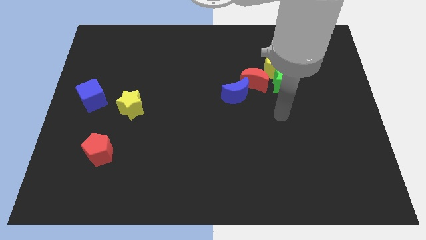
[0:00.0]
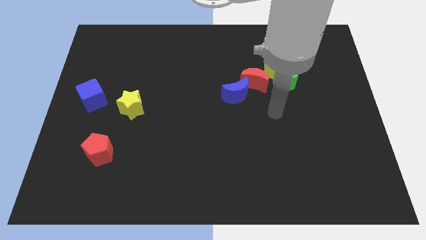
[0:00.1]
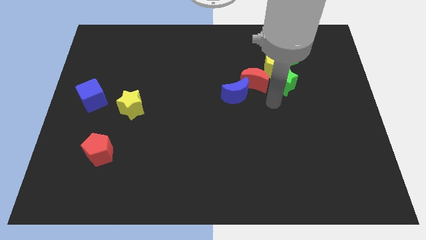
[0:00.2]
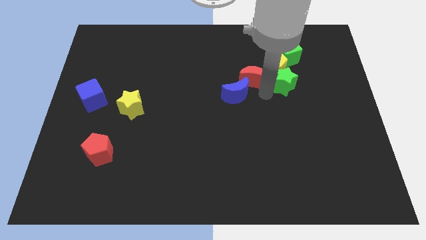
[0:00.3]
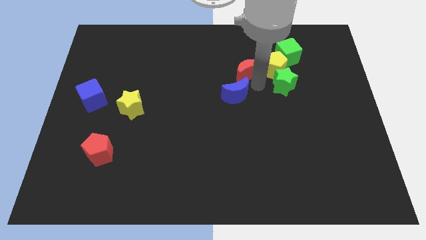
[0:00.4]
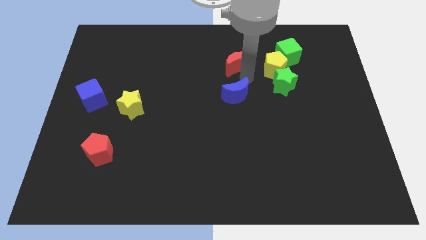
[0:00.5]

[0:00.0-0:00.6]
separate the blue moon from the red moon

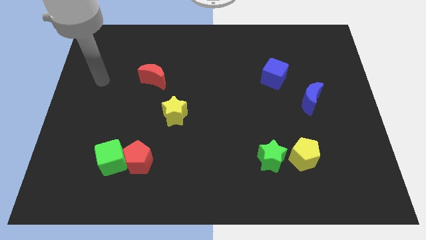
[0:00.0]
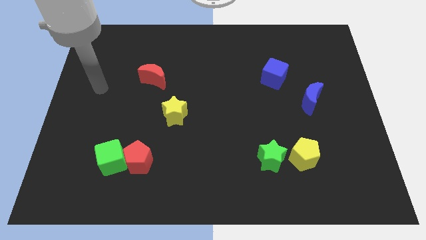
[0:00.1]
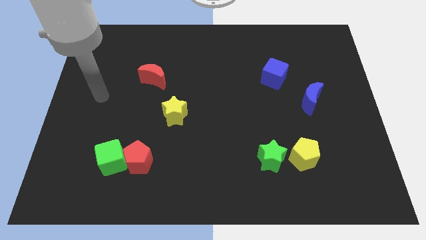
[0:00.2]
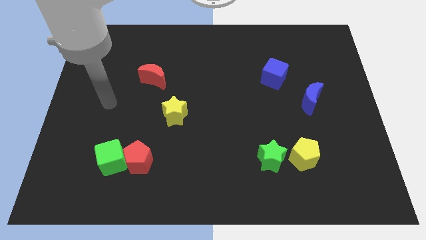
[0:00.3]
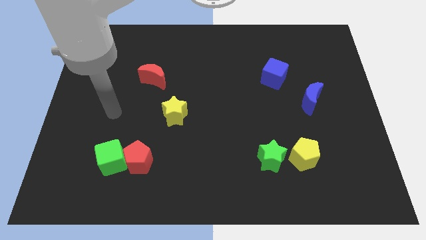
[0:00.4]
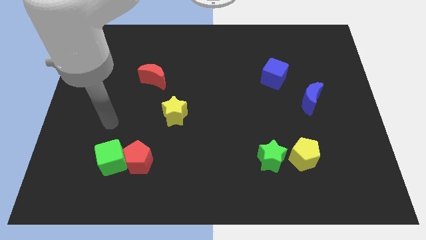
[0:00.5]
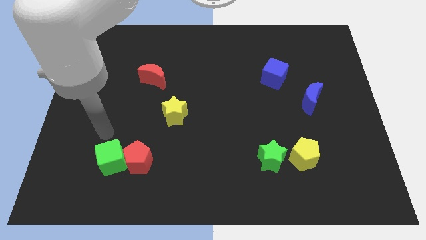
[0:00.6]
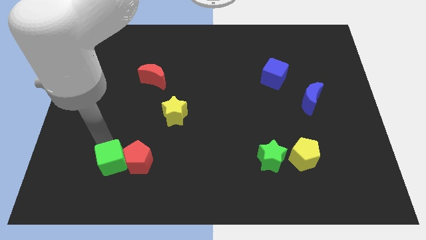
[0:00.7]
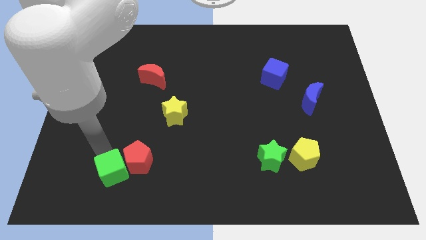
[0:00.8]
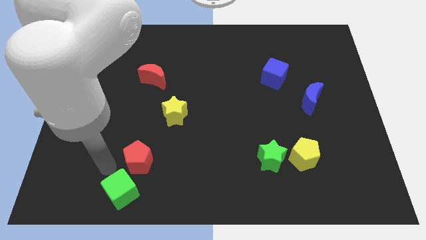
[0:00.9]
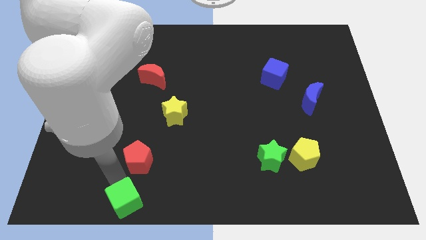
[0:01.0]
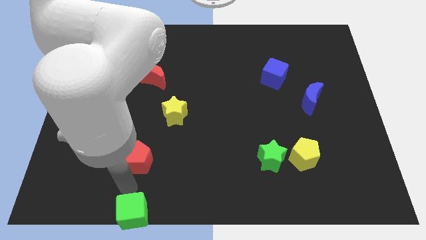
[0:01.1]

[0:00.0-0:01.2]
move the red pentagon away from the green cube

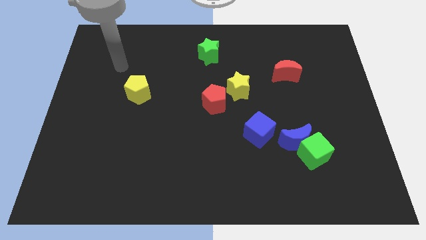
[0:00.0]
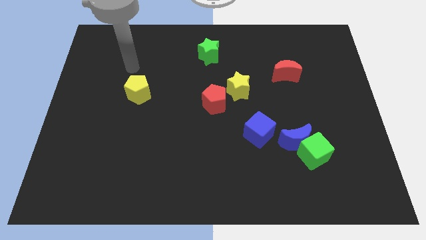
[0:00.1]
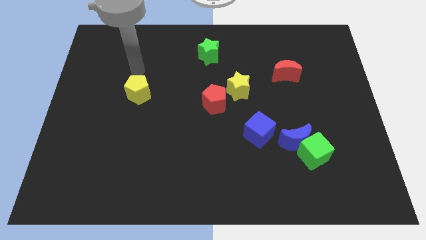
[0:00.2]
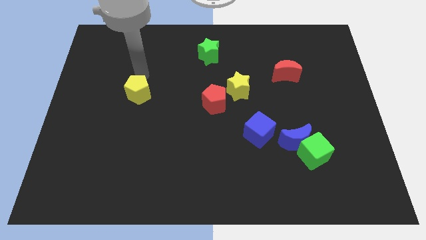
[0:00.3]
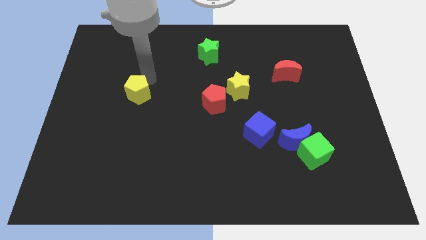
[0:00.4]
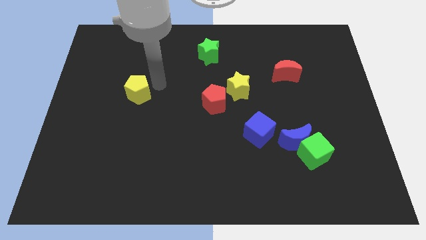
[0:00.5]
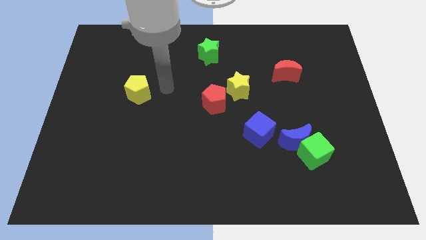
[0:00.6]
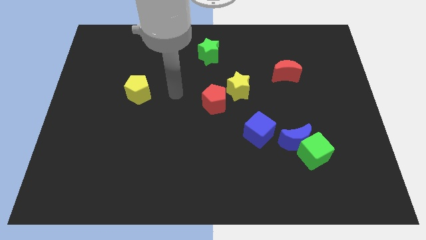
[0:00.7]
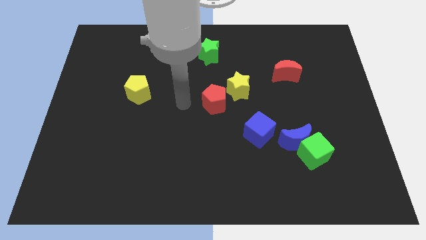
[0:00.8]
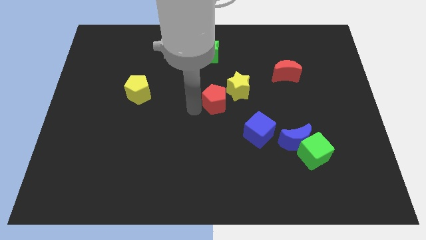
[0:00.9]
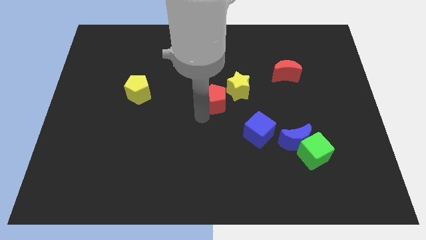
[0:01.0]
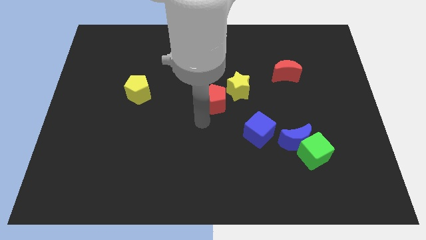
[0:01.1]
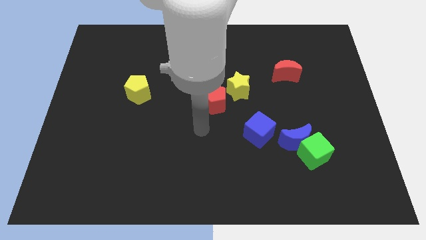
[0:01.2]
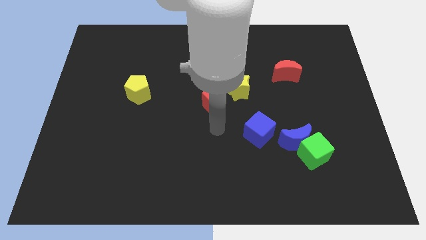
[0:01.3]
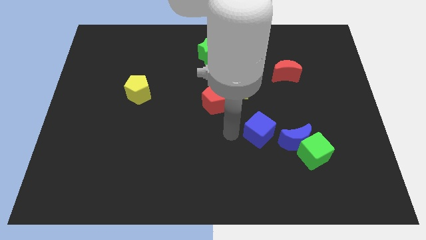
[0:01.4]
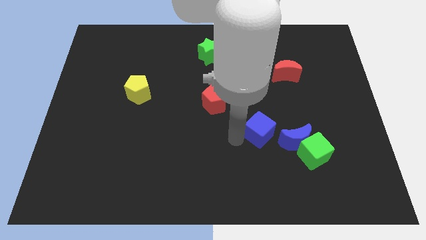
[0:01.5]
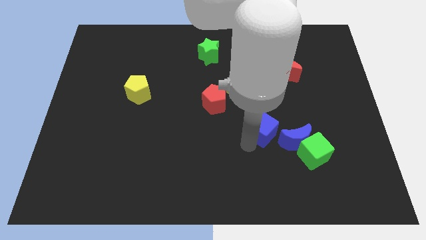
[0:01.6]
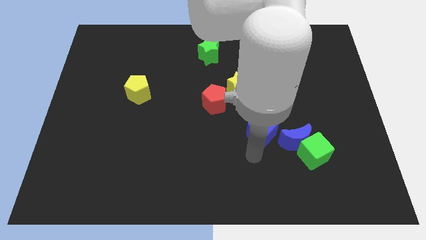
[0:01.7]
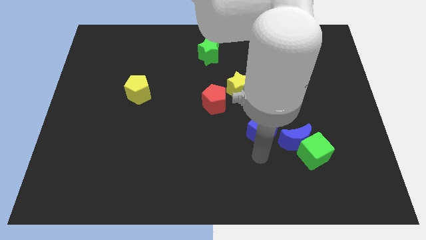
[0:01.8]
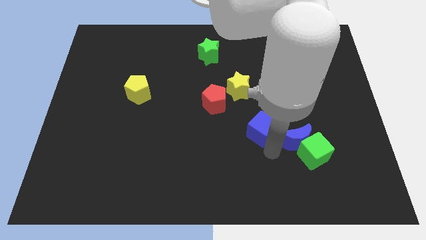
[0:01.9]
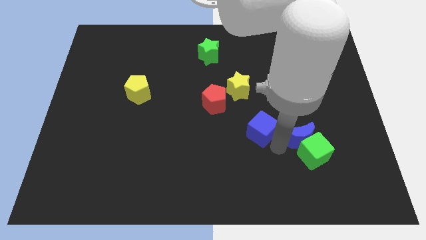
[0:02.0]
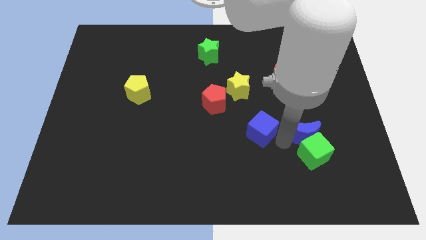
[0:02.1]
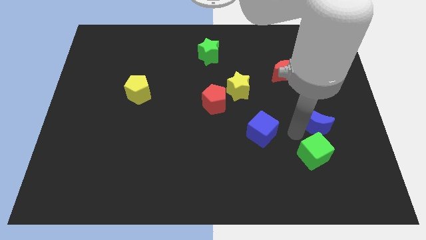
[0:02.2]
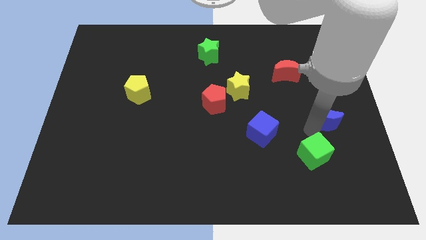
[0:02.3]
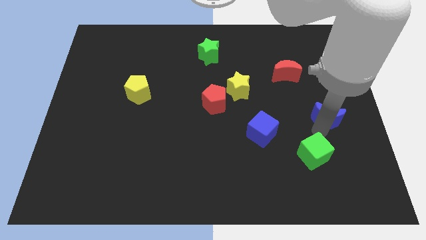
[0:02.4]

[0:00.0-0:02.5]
separate the green cube from the blue moon

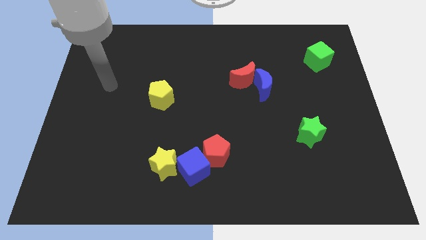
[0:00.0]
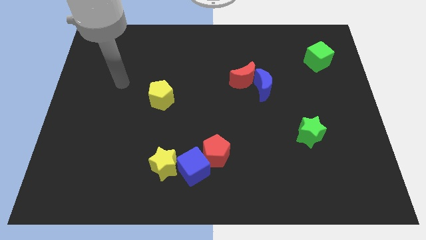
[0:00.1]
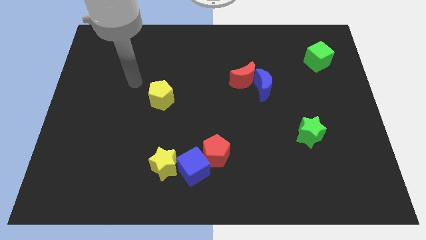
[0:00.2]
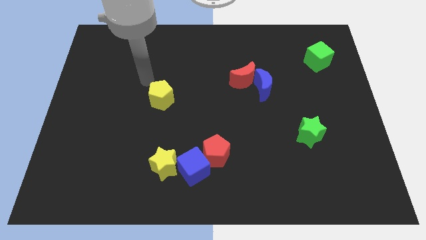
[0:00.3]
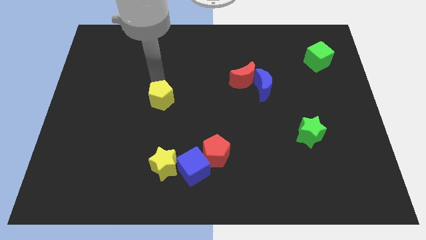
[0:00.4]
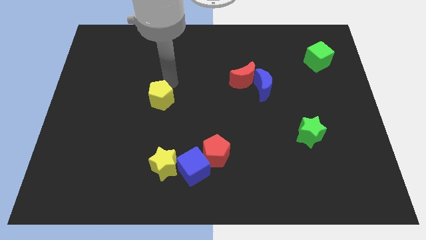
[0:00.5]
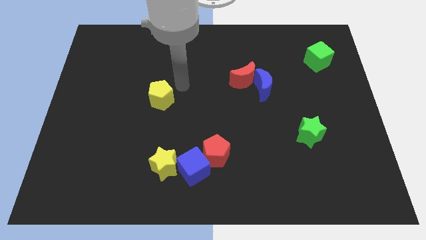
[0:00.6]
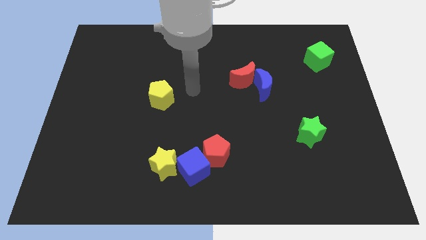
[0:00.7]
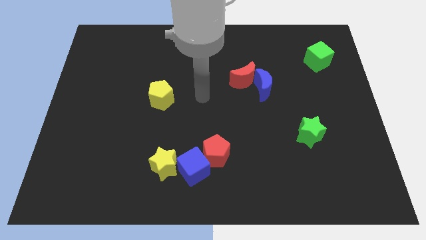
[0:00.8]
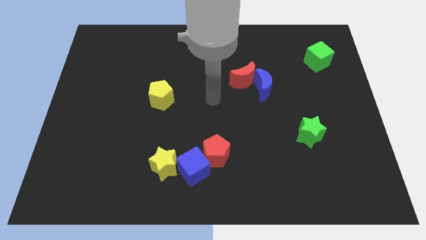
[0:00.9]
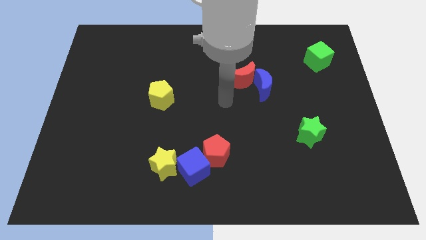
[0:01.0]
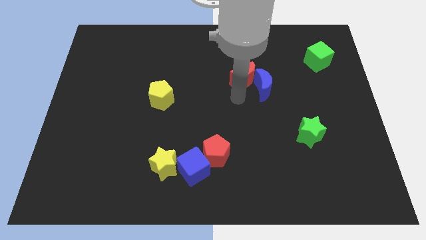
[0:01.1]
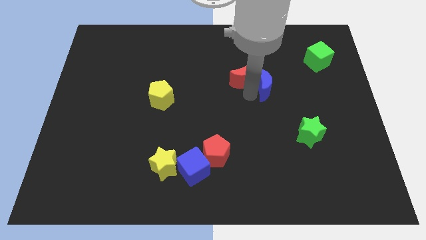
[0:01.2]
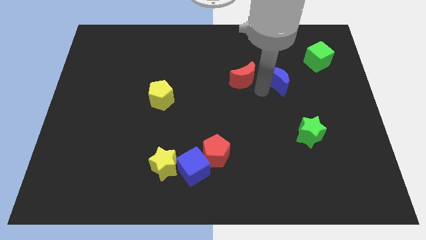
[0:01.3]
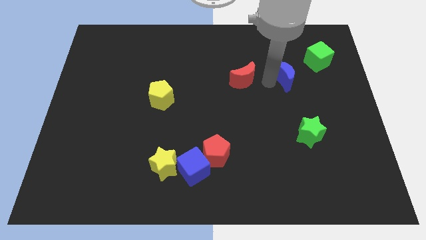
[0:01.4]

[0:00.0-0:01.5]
move the red moon away from the blue moon

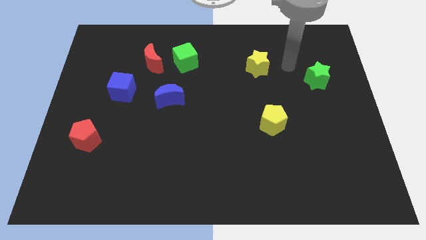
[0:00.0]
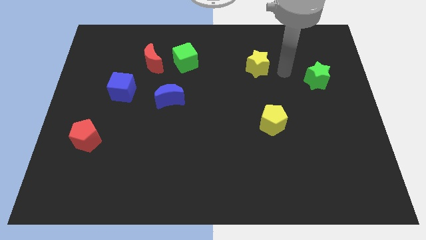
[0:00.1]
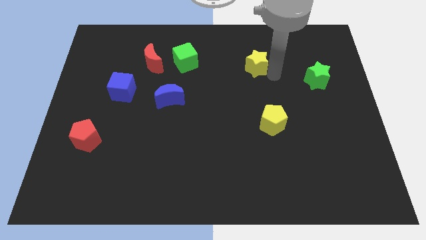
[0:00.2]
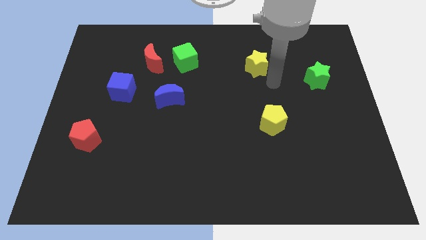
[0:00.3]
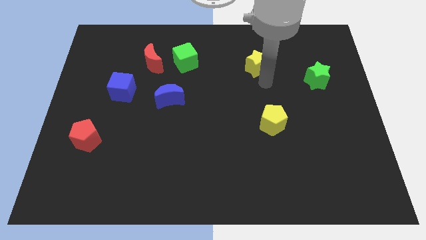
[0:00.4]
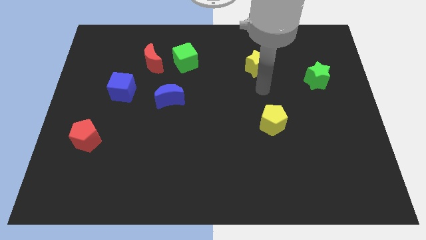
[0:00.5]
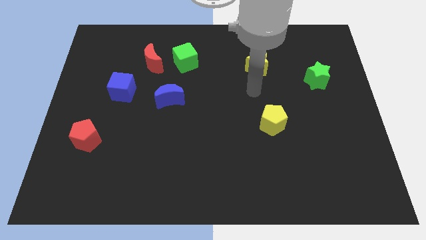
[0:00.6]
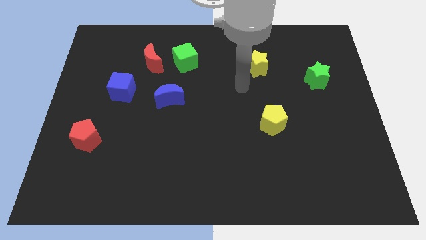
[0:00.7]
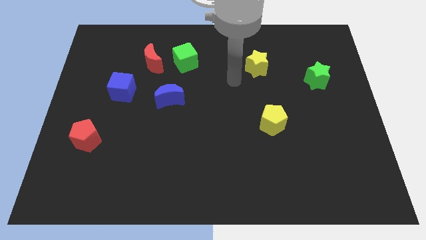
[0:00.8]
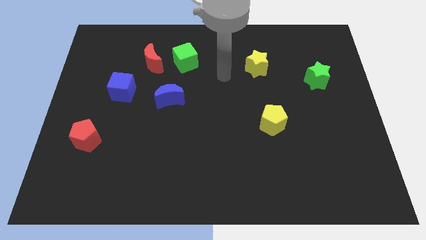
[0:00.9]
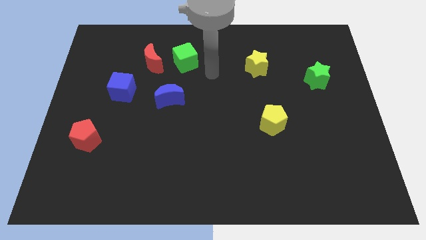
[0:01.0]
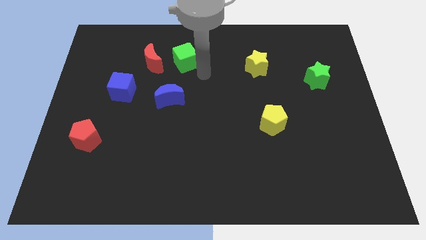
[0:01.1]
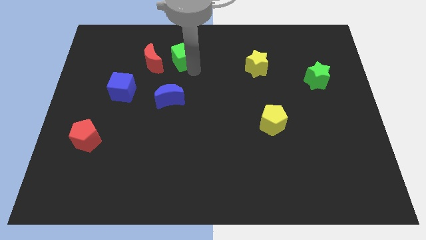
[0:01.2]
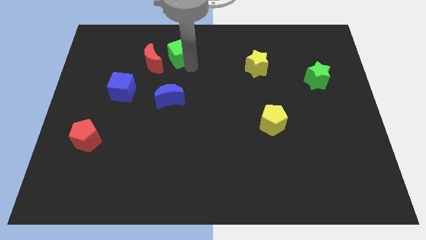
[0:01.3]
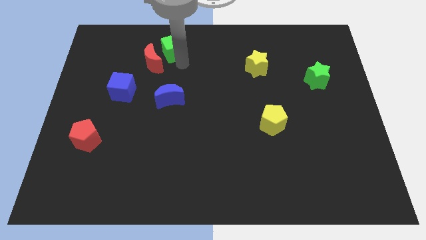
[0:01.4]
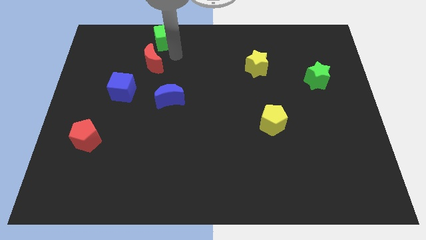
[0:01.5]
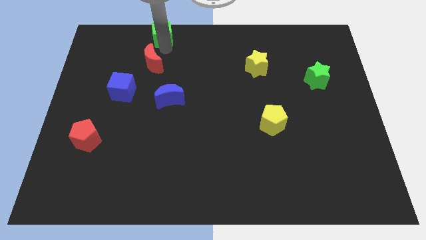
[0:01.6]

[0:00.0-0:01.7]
pull the red moon apart from the green cube

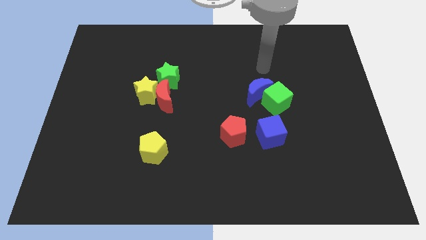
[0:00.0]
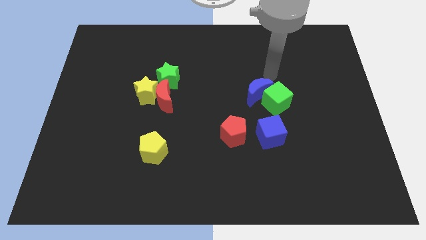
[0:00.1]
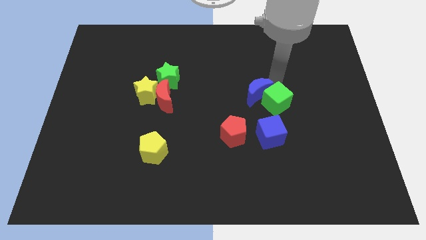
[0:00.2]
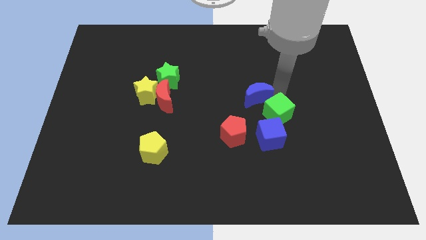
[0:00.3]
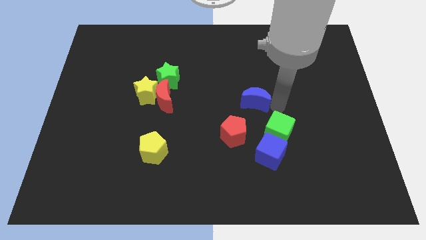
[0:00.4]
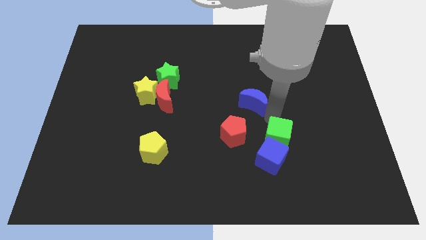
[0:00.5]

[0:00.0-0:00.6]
separate the blue moon from the green cube

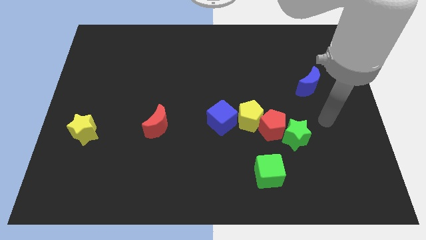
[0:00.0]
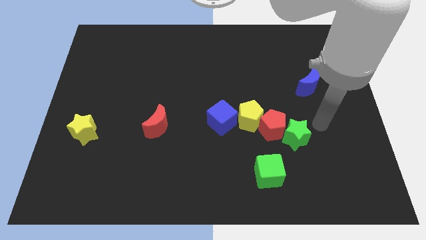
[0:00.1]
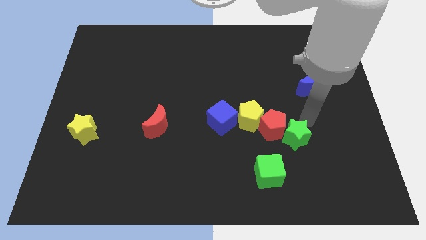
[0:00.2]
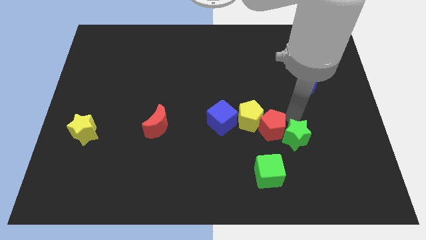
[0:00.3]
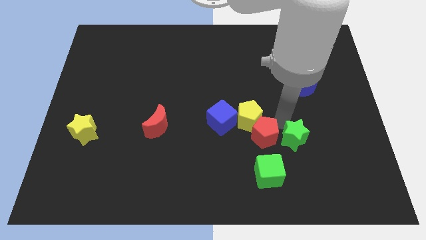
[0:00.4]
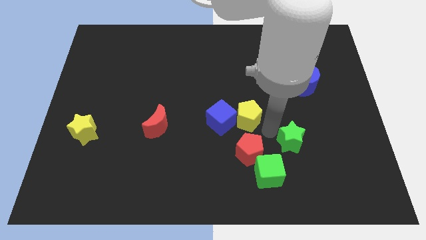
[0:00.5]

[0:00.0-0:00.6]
pull the green star apart from the red pentagon

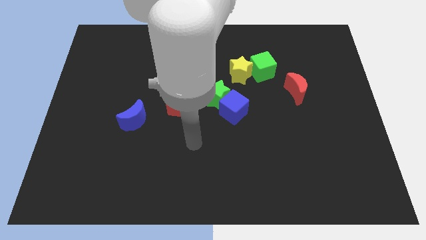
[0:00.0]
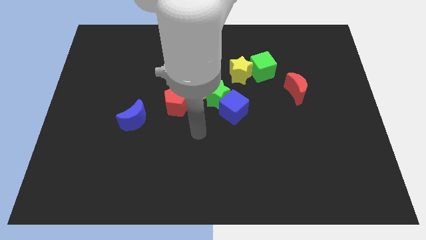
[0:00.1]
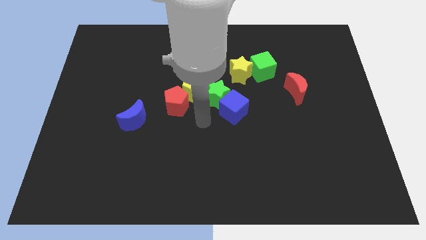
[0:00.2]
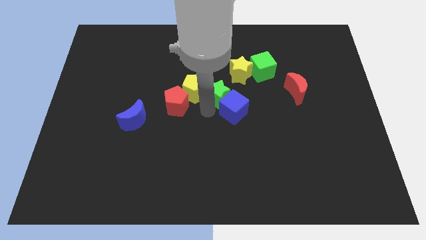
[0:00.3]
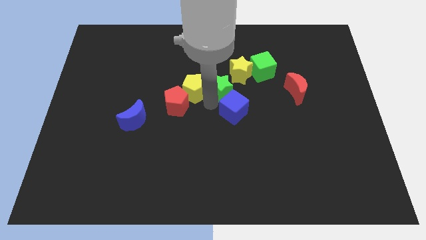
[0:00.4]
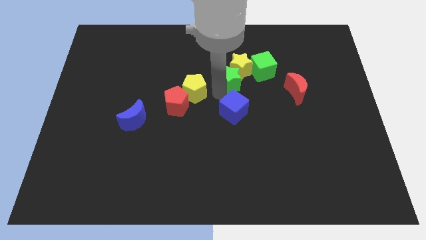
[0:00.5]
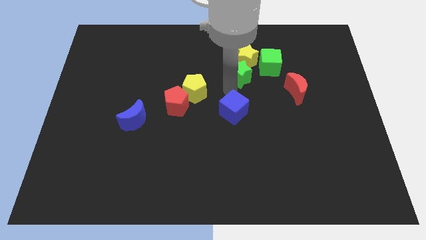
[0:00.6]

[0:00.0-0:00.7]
separate the blue cube from the green star
